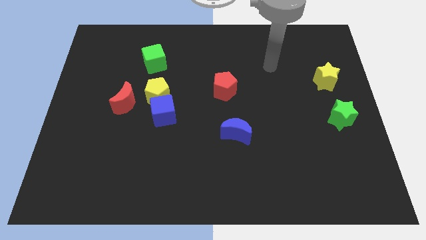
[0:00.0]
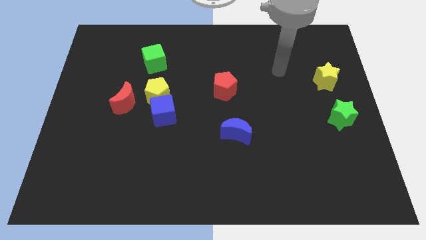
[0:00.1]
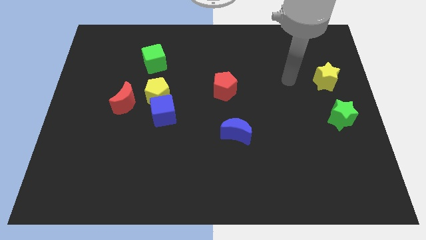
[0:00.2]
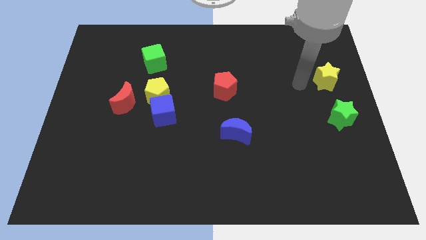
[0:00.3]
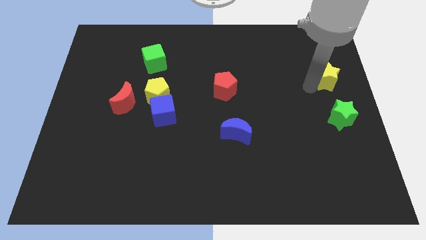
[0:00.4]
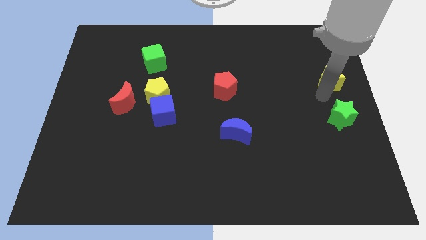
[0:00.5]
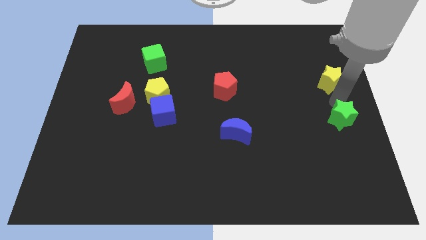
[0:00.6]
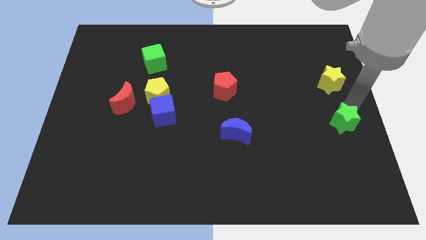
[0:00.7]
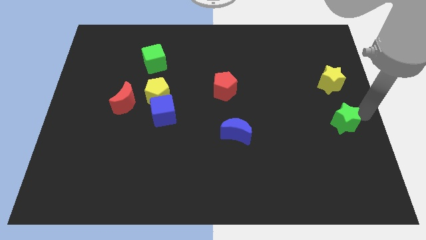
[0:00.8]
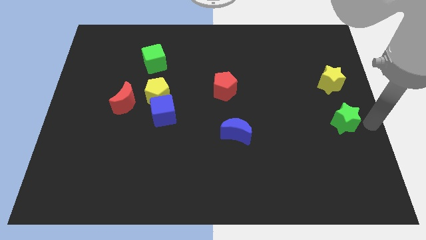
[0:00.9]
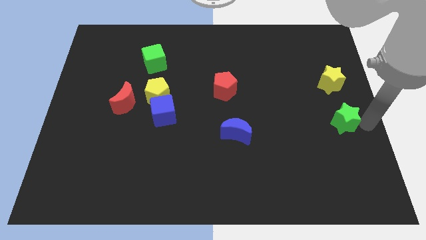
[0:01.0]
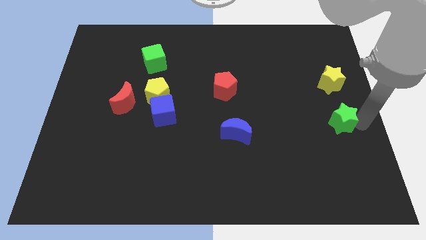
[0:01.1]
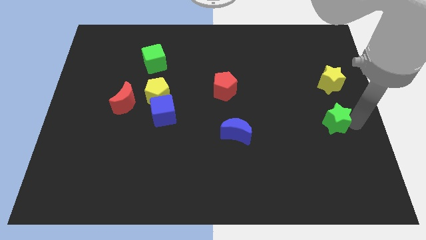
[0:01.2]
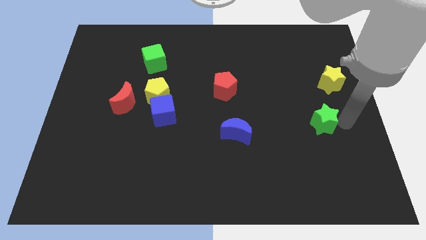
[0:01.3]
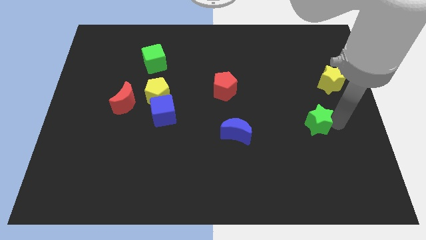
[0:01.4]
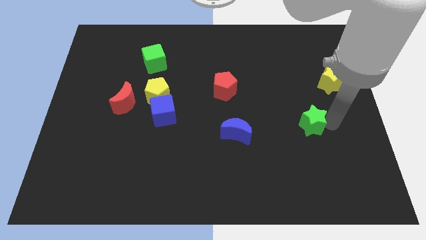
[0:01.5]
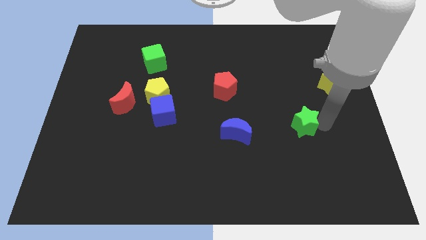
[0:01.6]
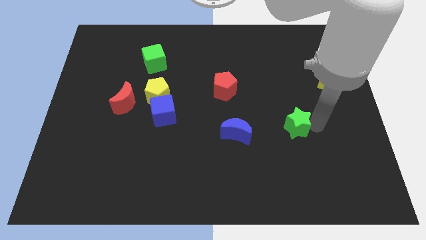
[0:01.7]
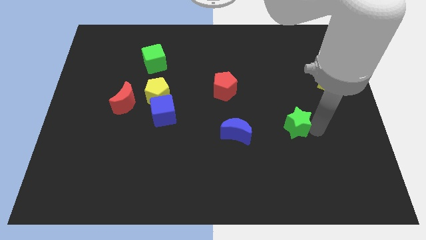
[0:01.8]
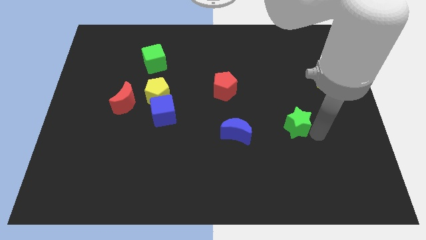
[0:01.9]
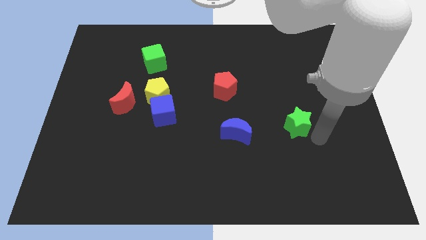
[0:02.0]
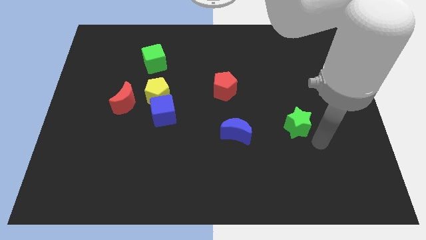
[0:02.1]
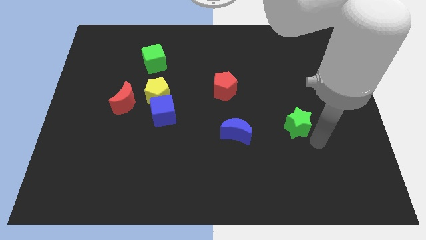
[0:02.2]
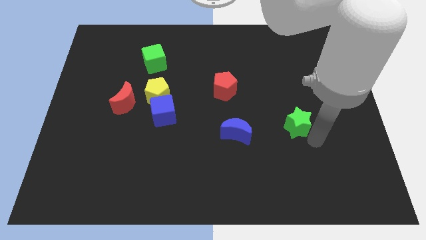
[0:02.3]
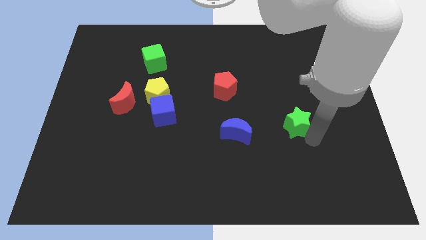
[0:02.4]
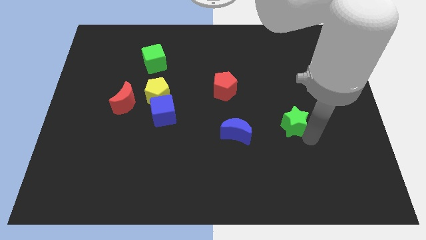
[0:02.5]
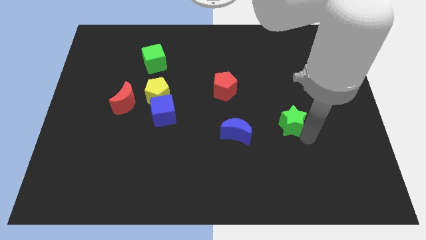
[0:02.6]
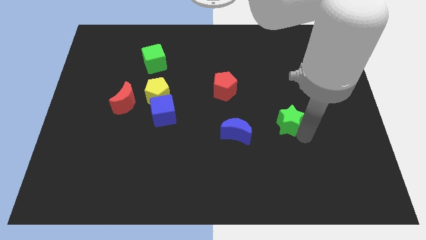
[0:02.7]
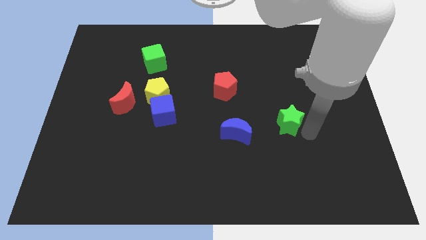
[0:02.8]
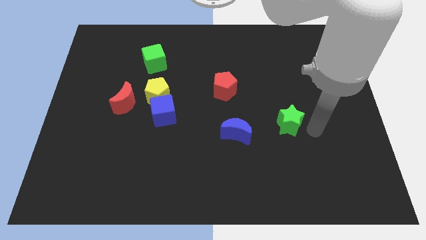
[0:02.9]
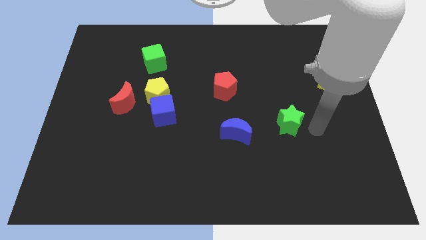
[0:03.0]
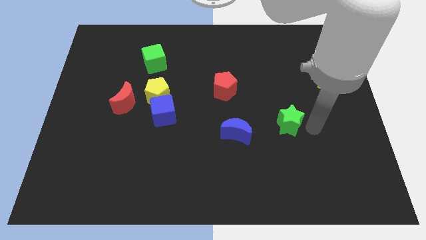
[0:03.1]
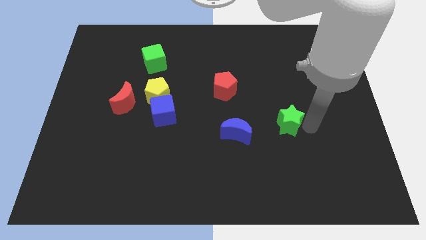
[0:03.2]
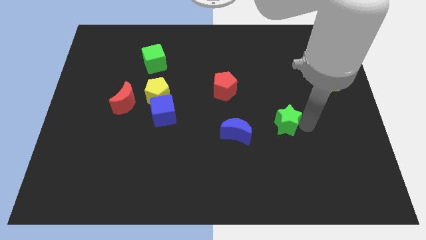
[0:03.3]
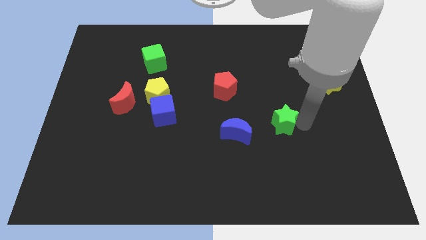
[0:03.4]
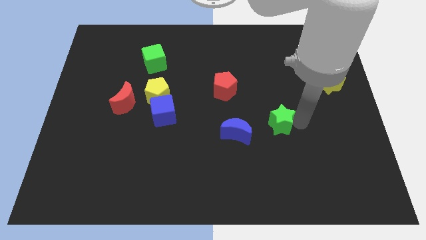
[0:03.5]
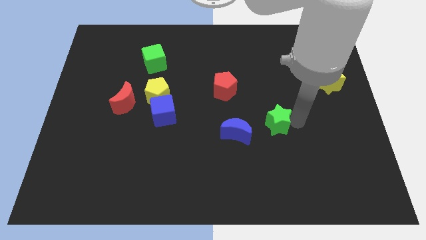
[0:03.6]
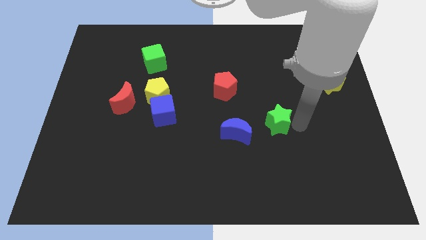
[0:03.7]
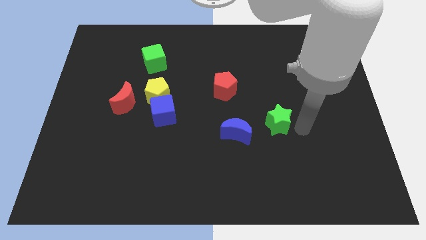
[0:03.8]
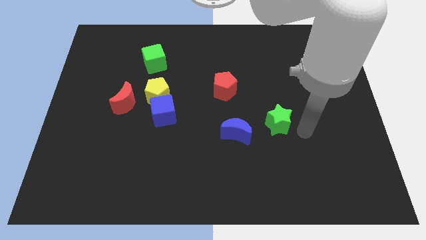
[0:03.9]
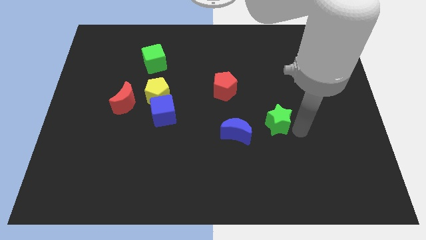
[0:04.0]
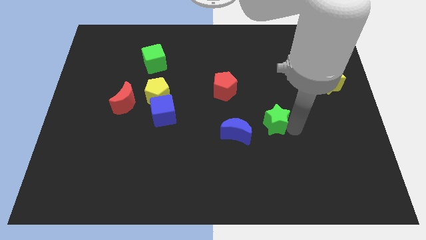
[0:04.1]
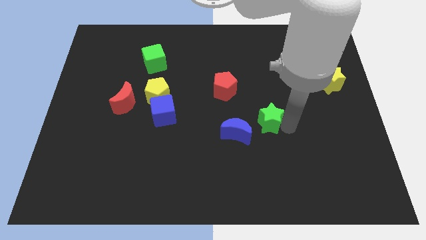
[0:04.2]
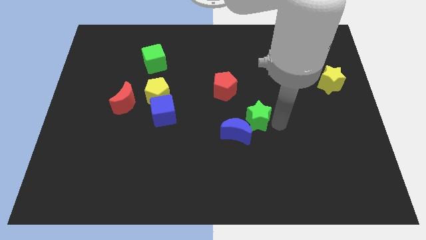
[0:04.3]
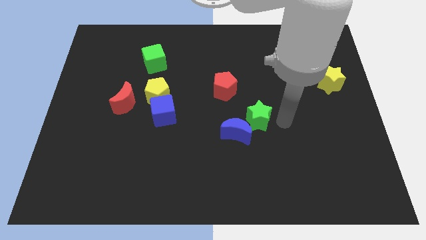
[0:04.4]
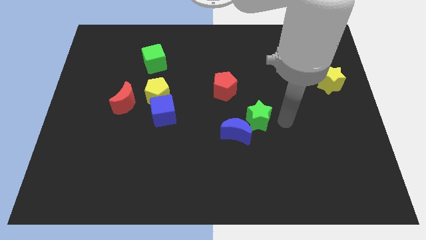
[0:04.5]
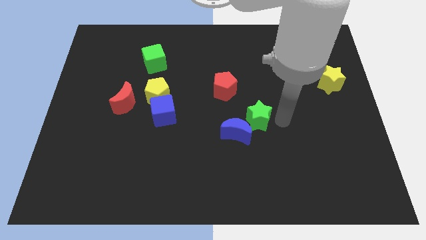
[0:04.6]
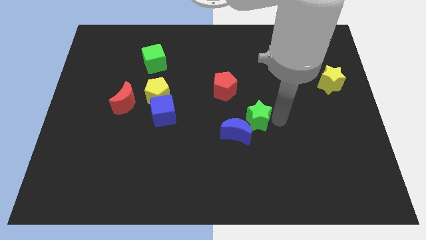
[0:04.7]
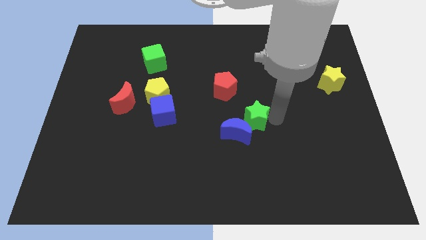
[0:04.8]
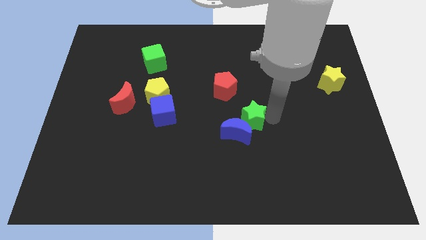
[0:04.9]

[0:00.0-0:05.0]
move the green star left

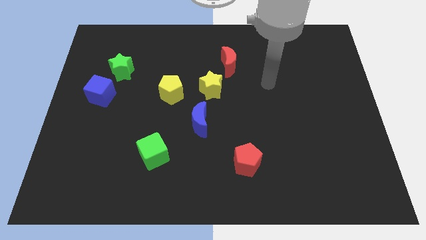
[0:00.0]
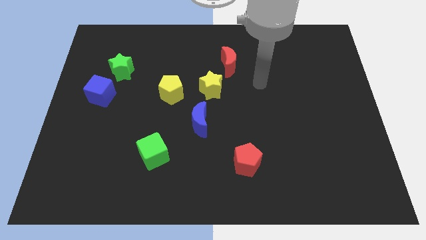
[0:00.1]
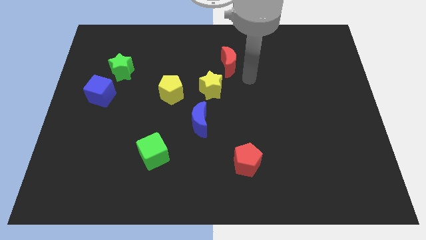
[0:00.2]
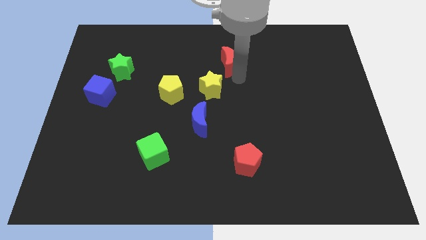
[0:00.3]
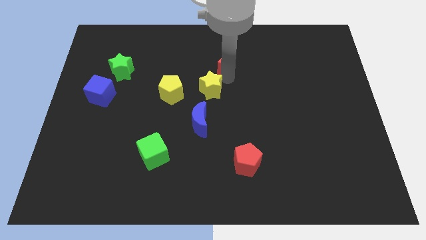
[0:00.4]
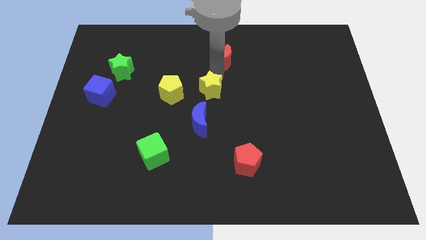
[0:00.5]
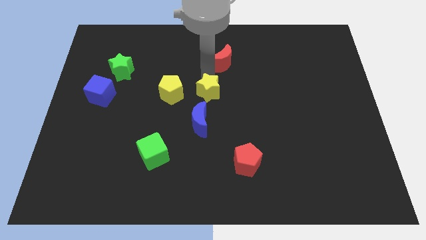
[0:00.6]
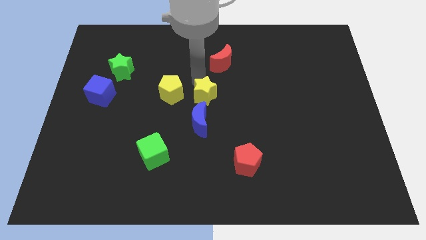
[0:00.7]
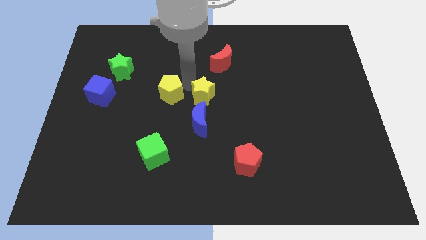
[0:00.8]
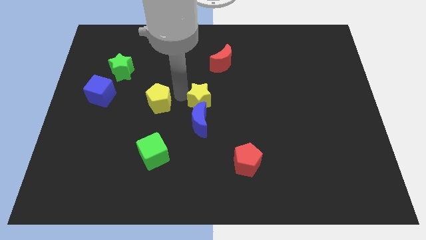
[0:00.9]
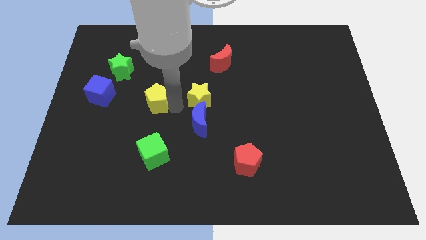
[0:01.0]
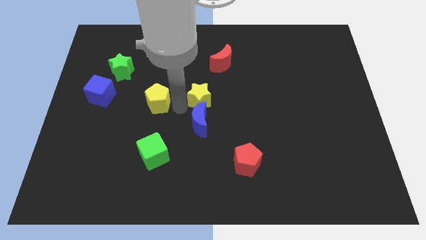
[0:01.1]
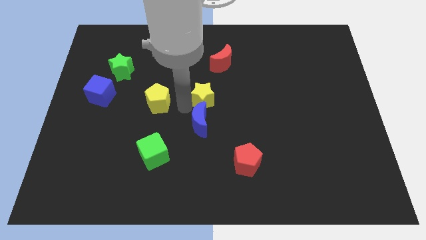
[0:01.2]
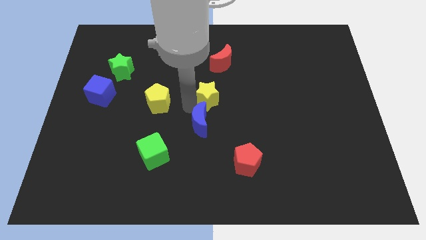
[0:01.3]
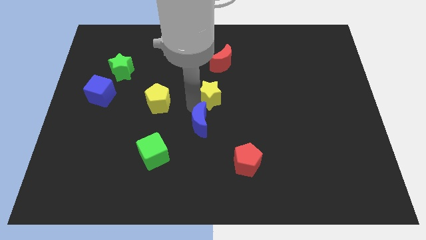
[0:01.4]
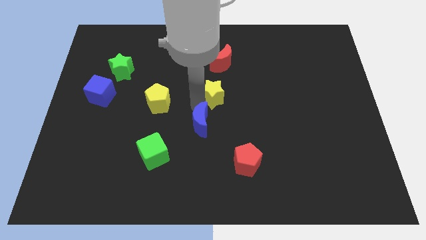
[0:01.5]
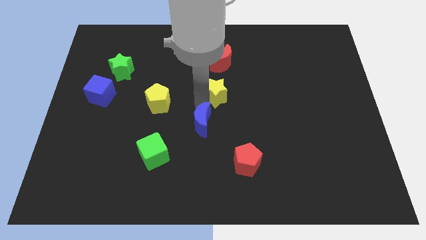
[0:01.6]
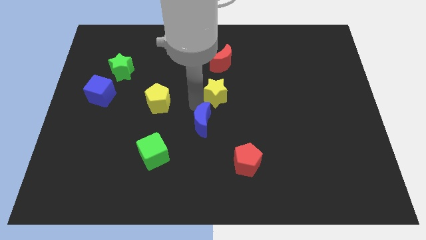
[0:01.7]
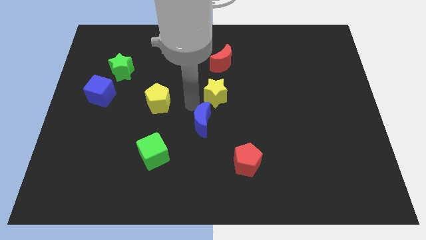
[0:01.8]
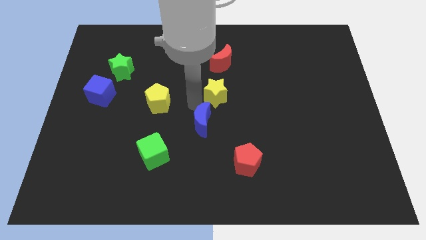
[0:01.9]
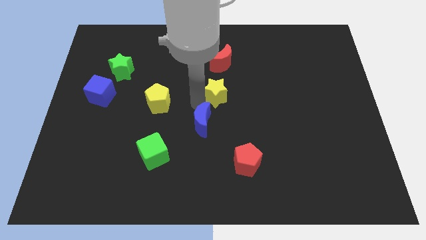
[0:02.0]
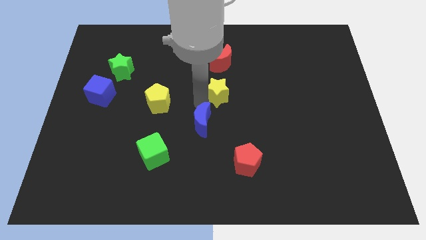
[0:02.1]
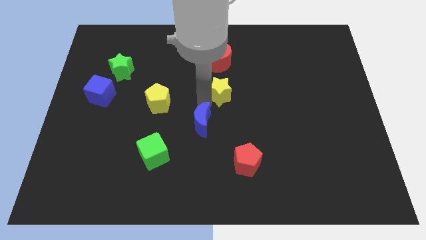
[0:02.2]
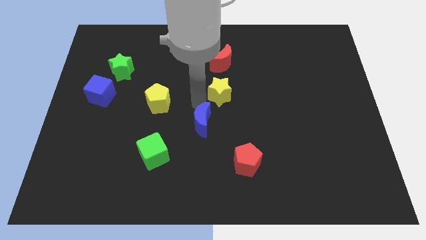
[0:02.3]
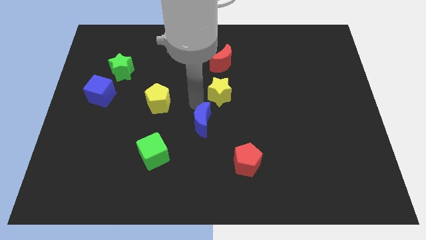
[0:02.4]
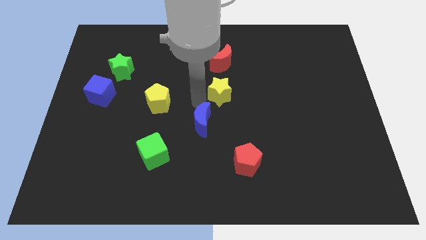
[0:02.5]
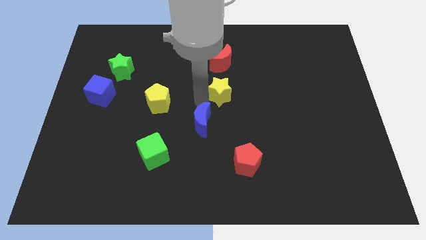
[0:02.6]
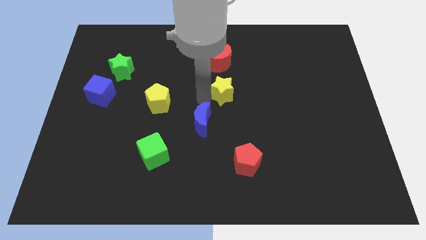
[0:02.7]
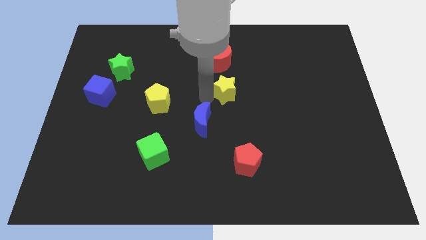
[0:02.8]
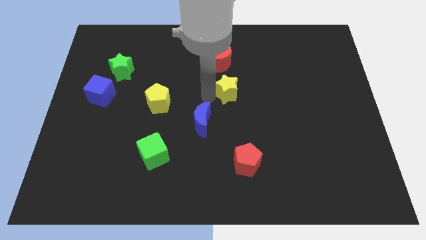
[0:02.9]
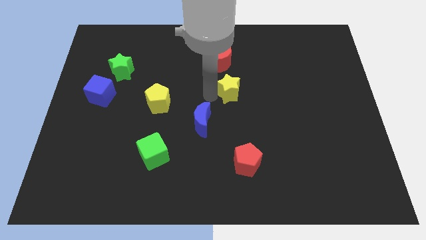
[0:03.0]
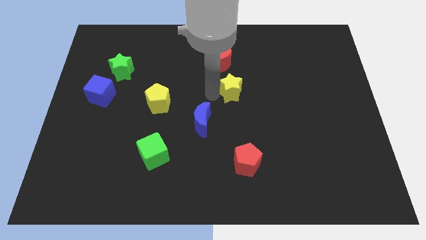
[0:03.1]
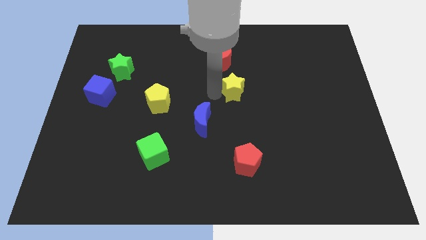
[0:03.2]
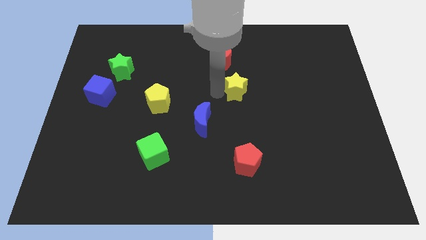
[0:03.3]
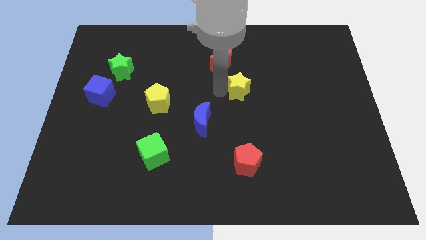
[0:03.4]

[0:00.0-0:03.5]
push the yellow star to the right a little bit
